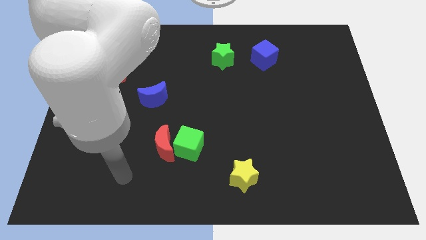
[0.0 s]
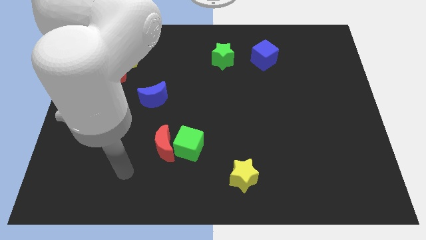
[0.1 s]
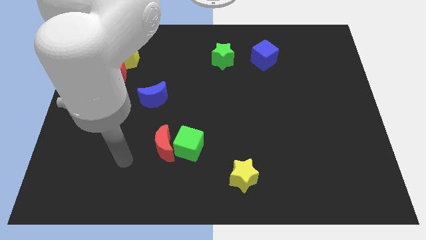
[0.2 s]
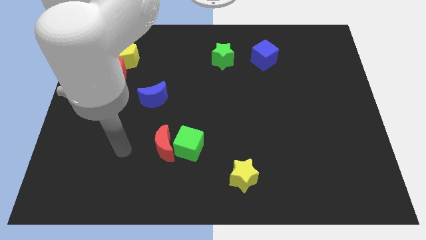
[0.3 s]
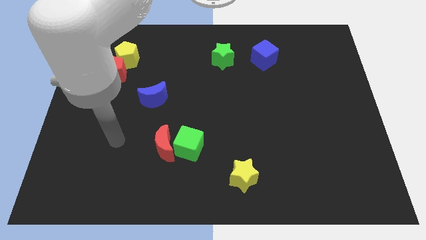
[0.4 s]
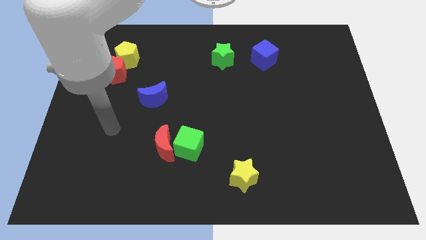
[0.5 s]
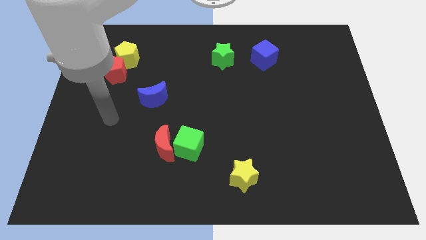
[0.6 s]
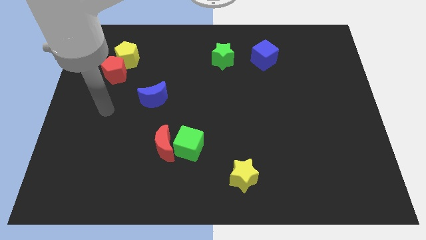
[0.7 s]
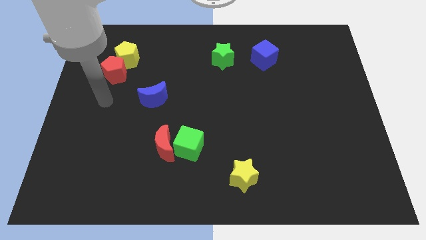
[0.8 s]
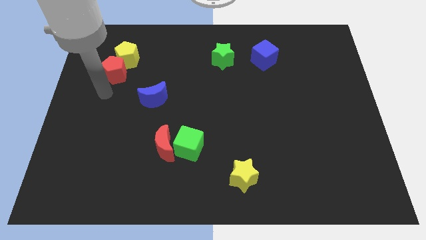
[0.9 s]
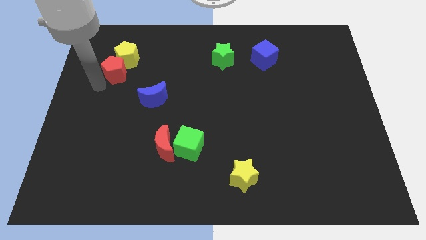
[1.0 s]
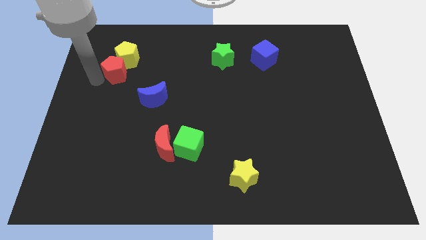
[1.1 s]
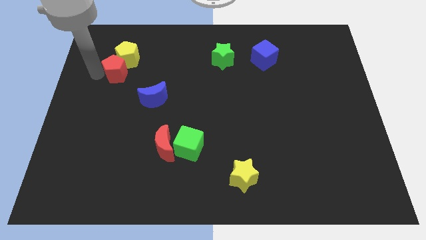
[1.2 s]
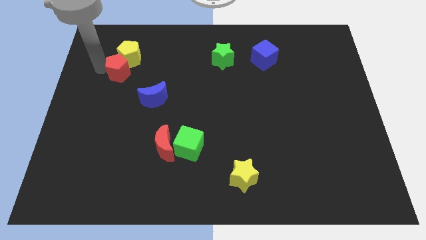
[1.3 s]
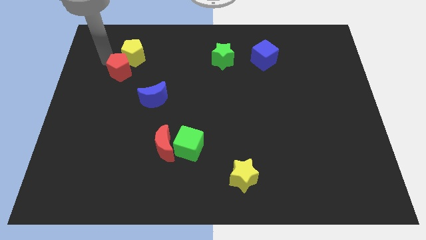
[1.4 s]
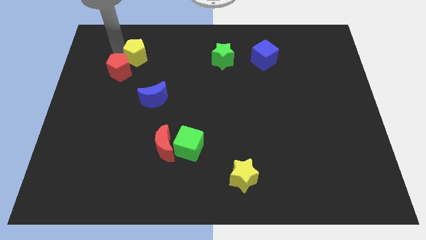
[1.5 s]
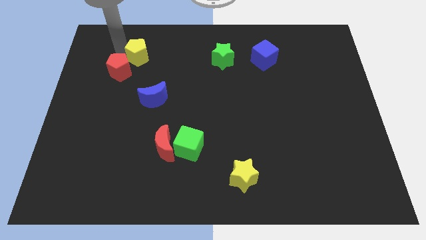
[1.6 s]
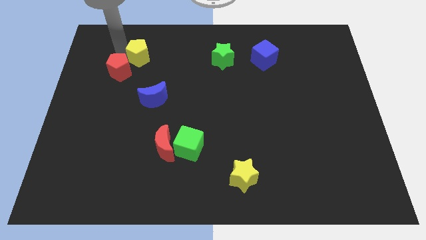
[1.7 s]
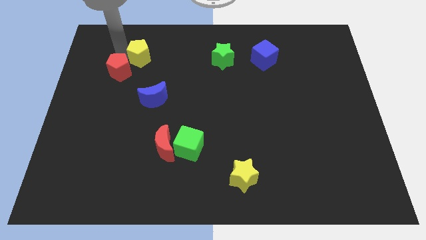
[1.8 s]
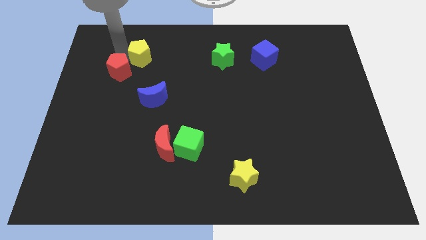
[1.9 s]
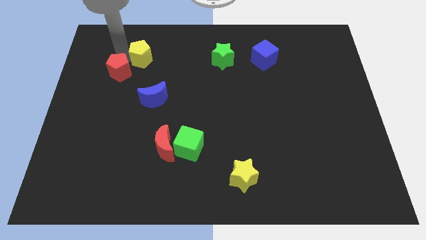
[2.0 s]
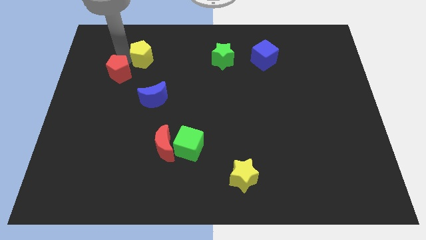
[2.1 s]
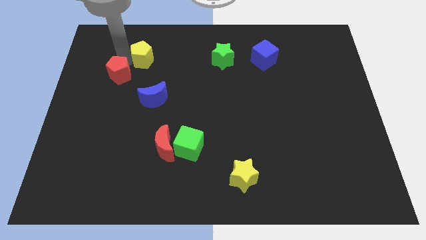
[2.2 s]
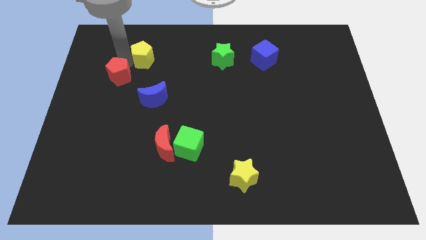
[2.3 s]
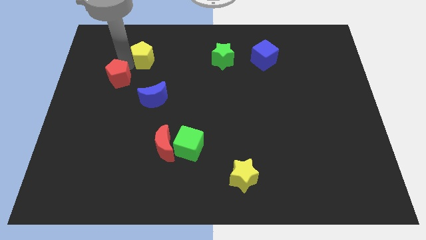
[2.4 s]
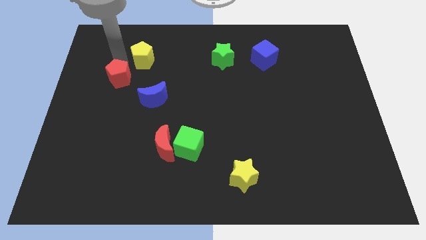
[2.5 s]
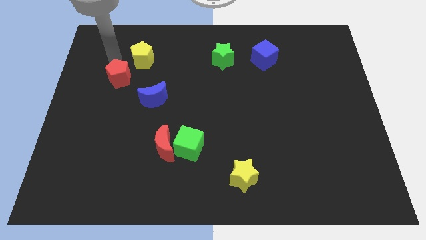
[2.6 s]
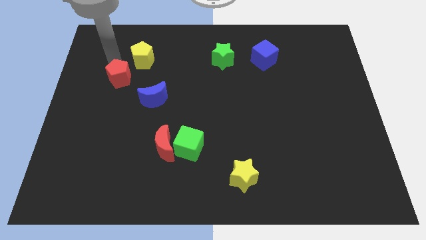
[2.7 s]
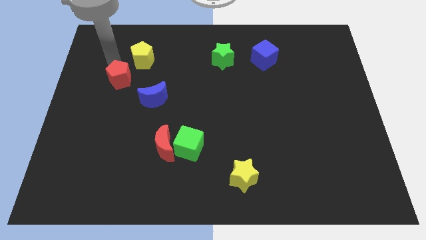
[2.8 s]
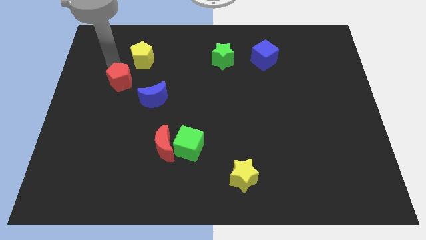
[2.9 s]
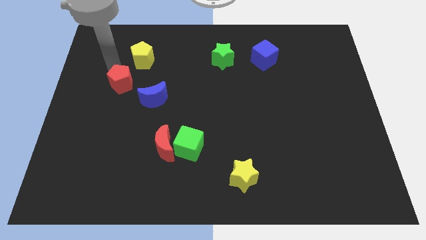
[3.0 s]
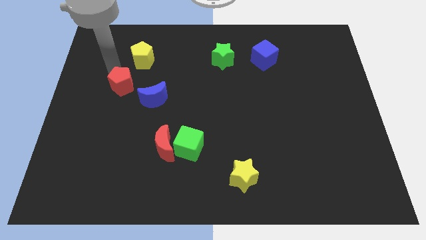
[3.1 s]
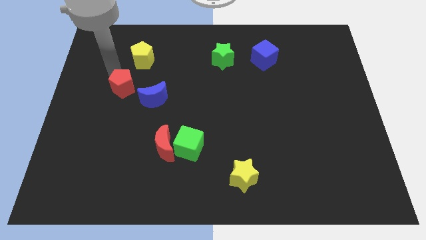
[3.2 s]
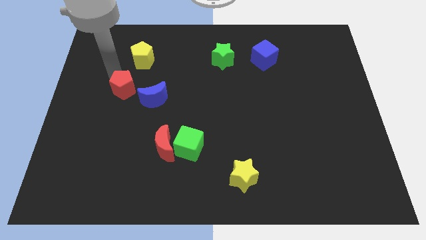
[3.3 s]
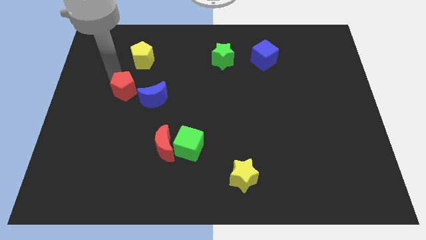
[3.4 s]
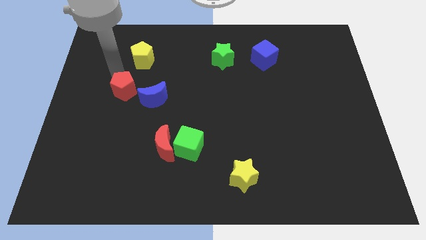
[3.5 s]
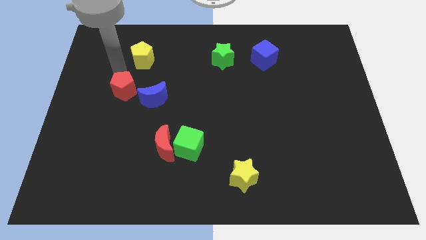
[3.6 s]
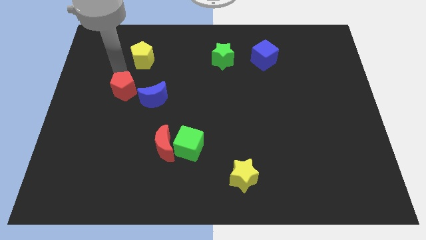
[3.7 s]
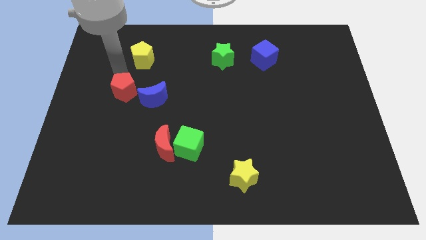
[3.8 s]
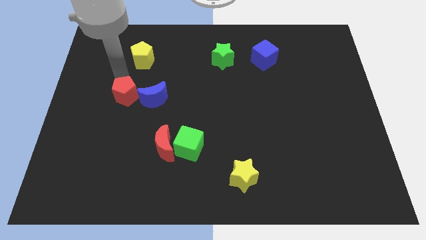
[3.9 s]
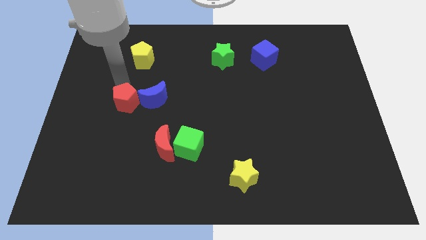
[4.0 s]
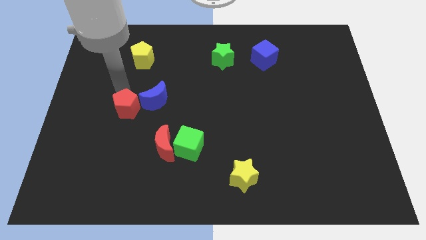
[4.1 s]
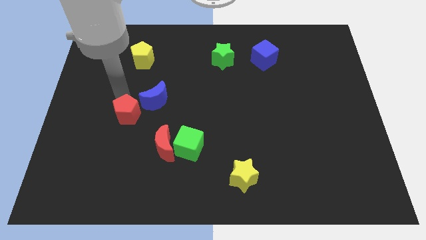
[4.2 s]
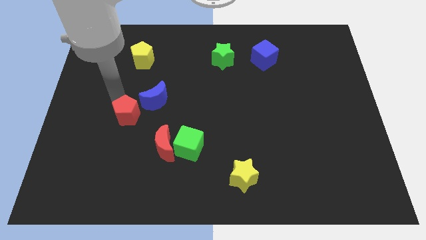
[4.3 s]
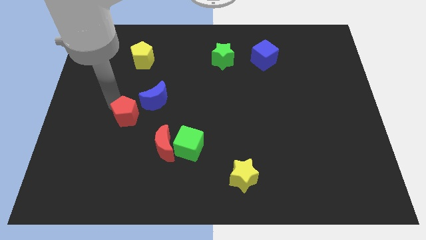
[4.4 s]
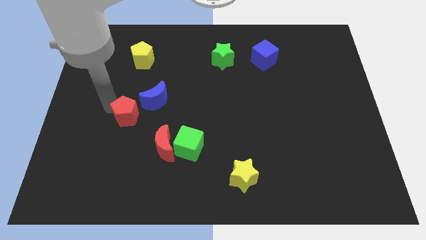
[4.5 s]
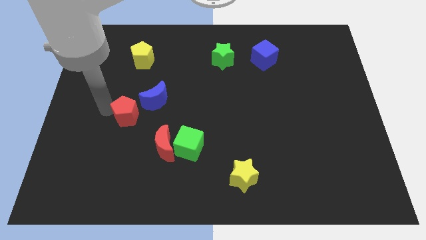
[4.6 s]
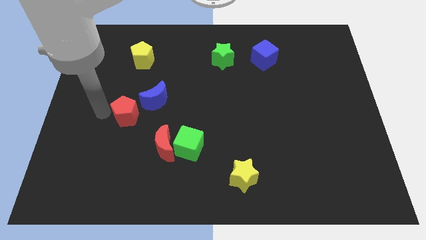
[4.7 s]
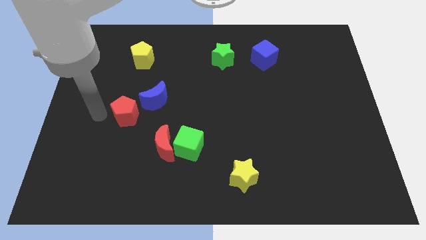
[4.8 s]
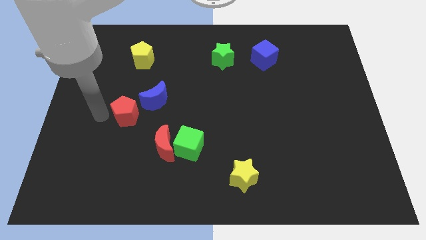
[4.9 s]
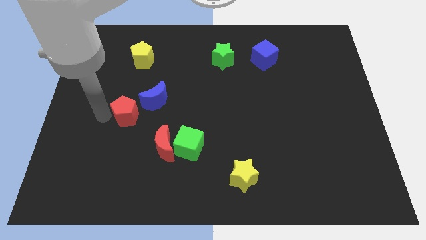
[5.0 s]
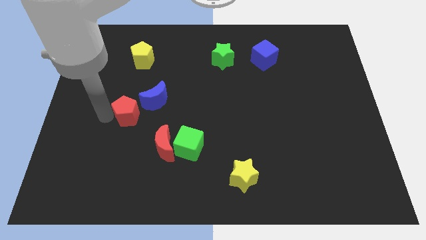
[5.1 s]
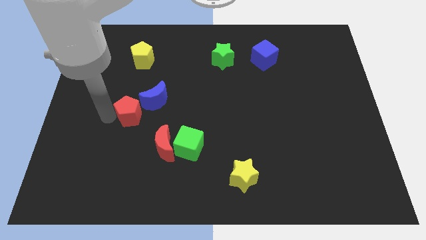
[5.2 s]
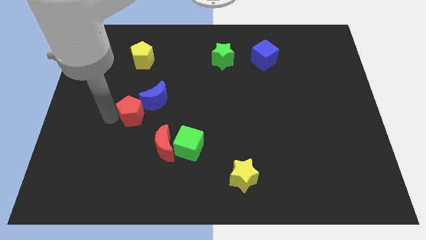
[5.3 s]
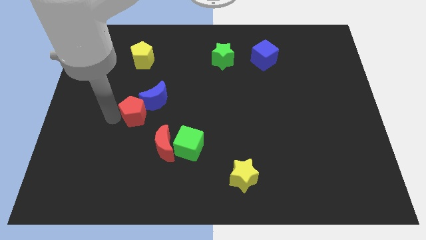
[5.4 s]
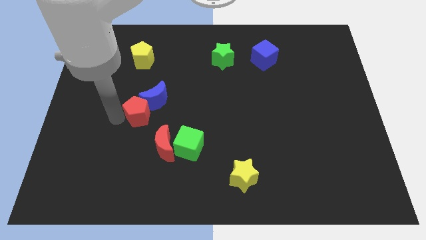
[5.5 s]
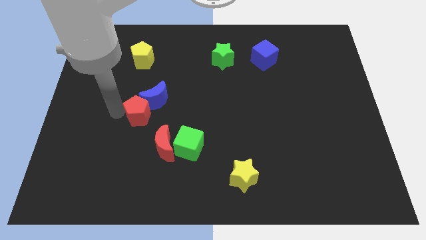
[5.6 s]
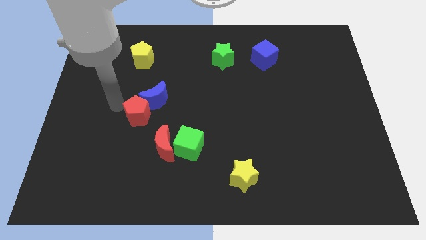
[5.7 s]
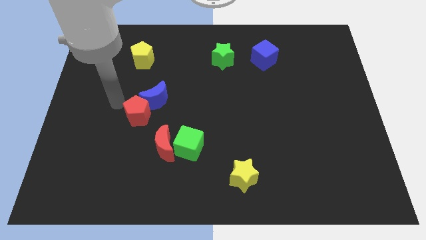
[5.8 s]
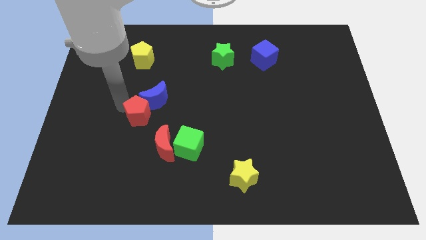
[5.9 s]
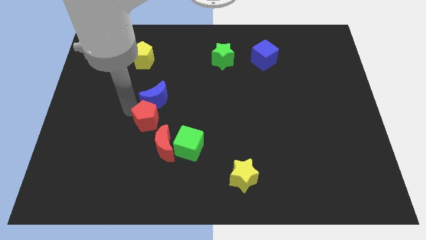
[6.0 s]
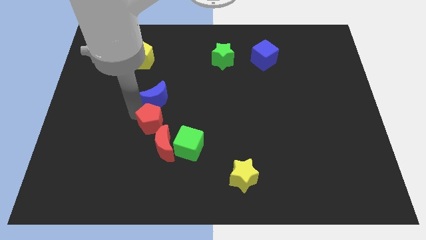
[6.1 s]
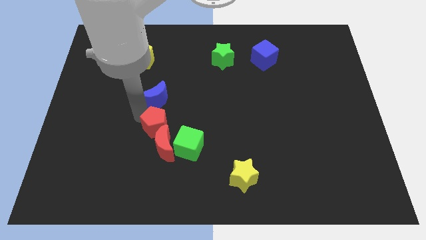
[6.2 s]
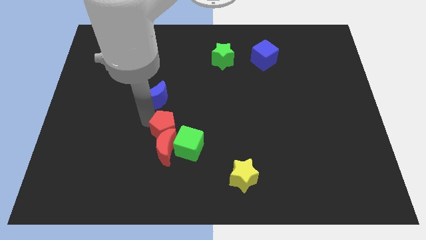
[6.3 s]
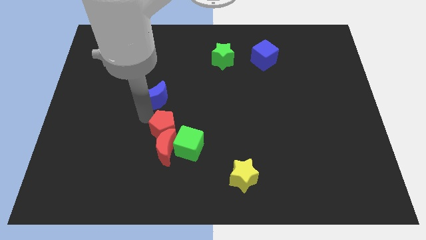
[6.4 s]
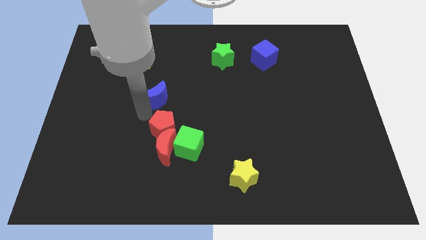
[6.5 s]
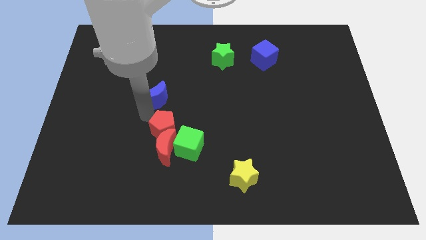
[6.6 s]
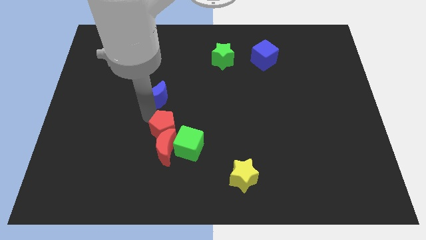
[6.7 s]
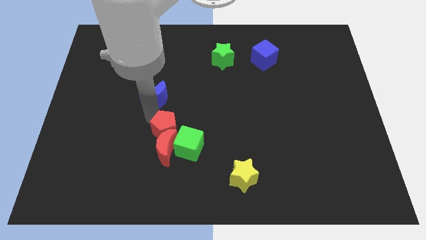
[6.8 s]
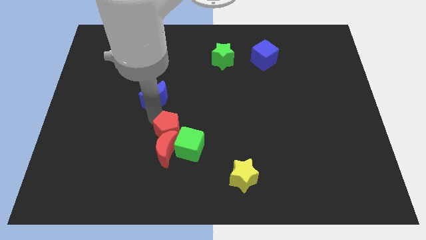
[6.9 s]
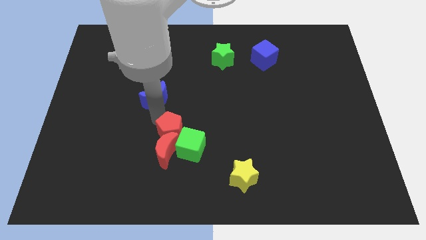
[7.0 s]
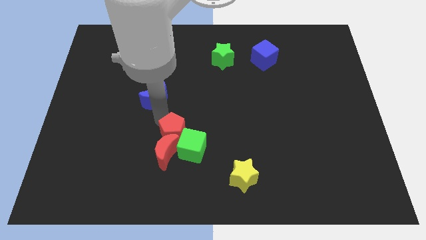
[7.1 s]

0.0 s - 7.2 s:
move the red pentagon towards the green cube
